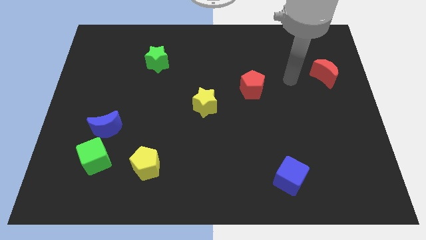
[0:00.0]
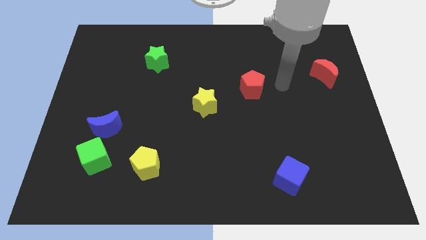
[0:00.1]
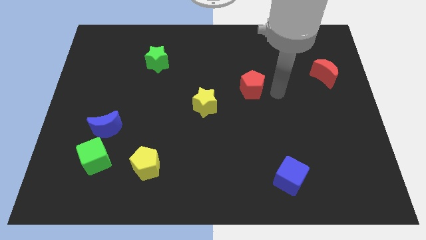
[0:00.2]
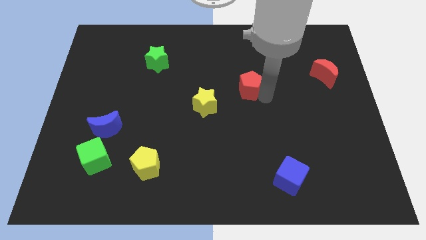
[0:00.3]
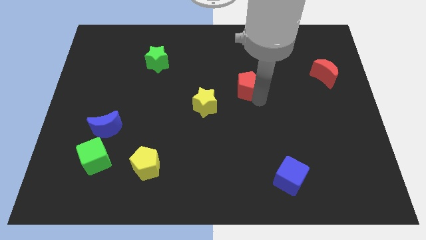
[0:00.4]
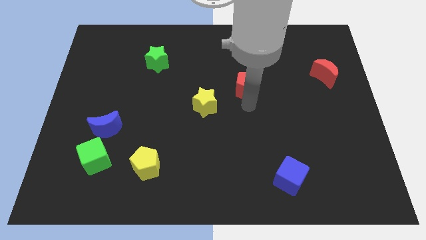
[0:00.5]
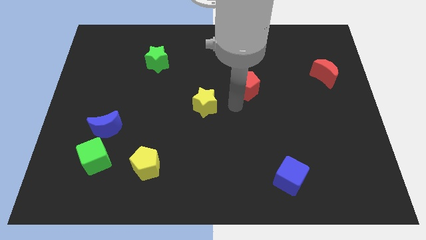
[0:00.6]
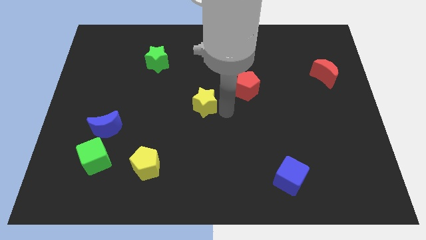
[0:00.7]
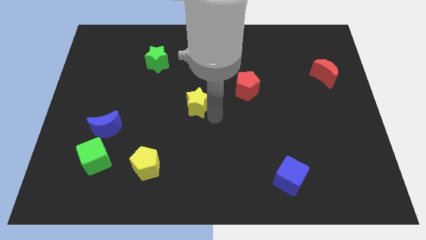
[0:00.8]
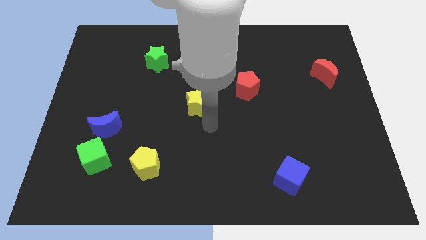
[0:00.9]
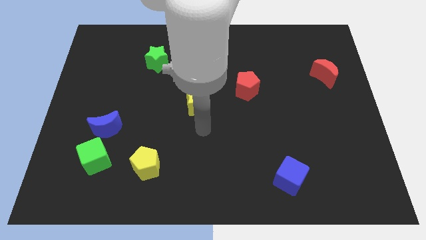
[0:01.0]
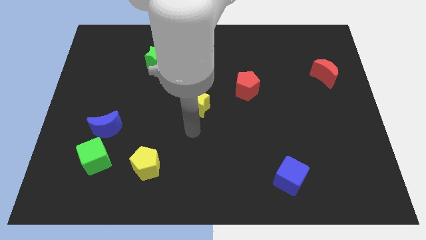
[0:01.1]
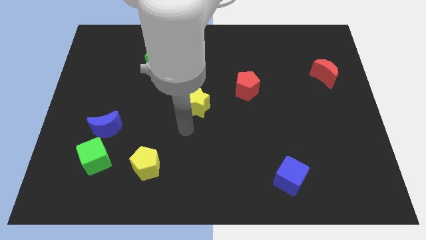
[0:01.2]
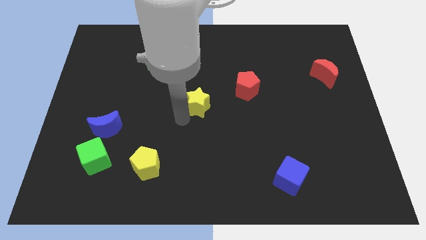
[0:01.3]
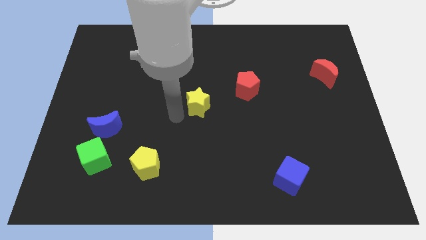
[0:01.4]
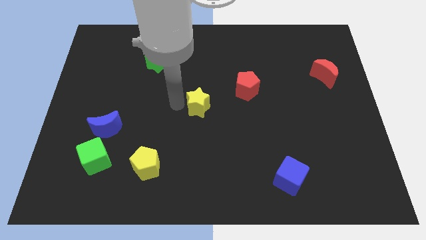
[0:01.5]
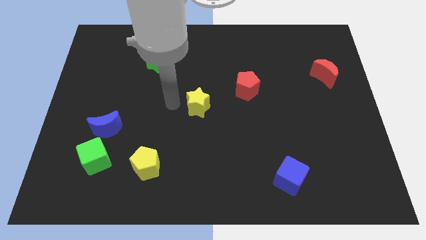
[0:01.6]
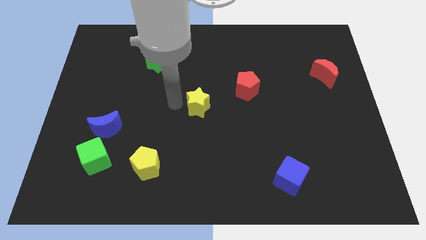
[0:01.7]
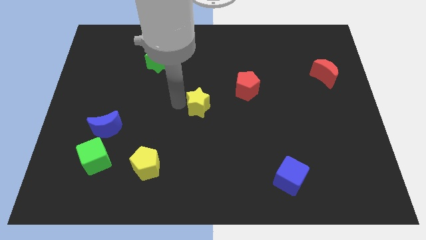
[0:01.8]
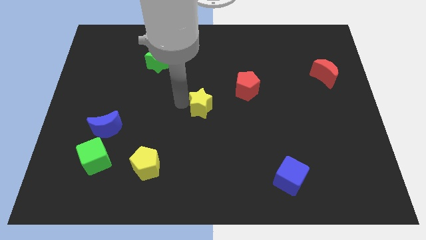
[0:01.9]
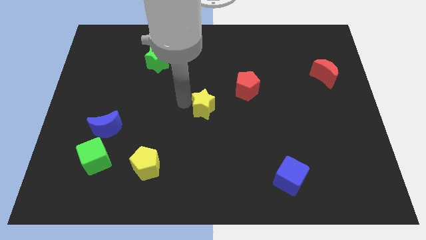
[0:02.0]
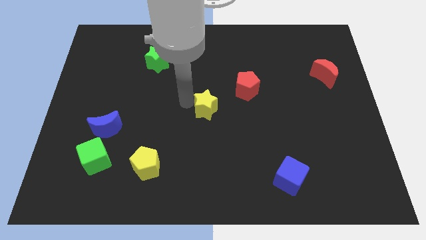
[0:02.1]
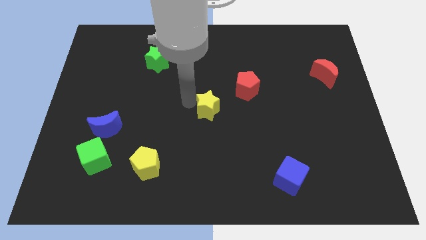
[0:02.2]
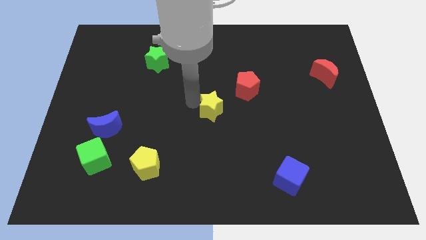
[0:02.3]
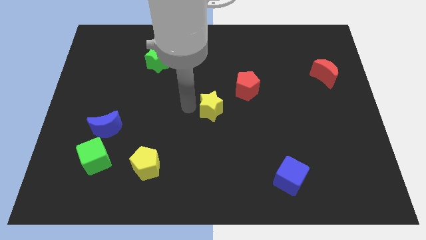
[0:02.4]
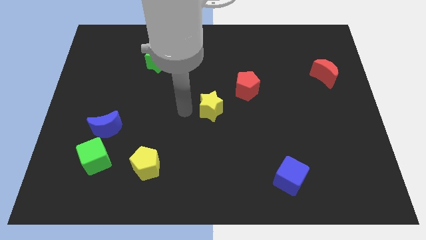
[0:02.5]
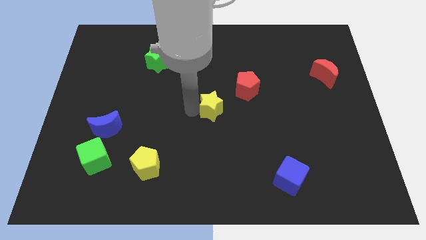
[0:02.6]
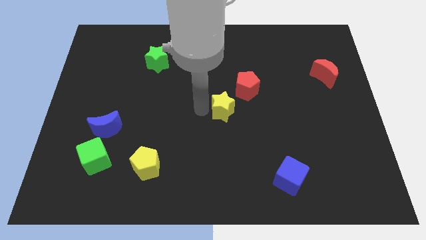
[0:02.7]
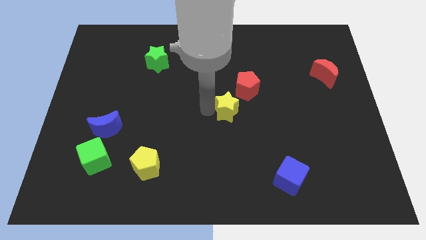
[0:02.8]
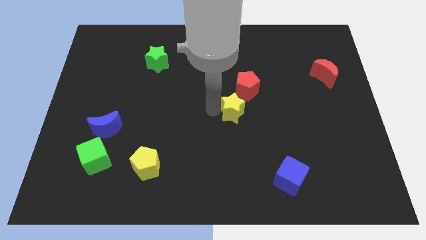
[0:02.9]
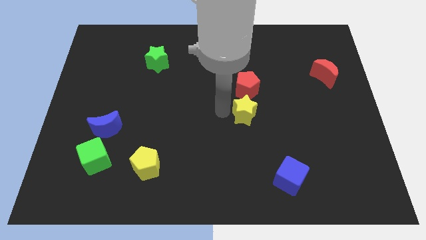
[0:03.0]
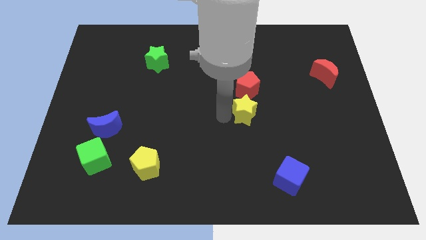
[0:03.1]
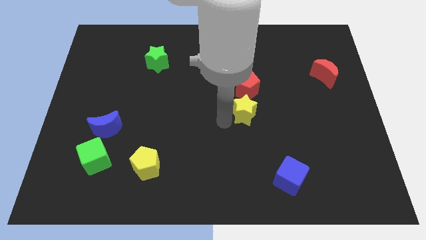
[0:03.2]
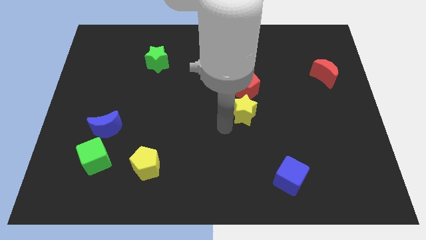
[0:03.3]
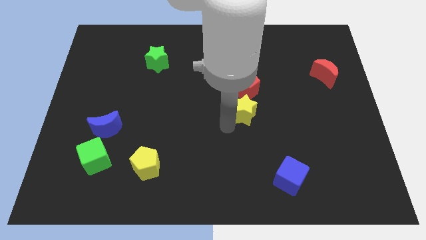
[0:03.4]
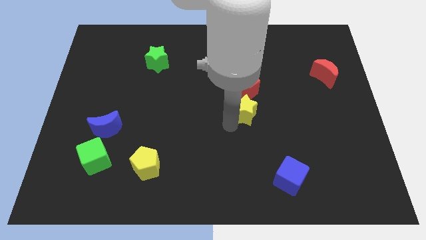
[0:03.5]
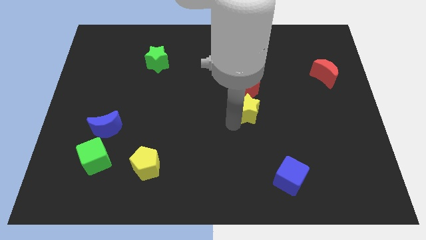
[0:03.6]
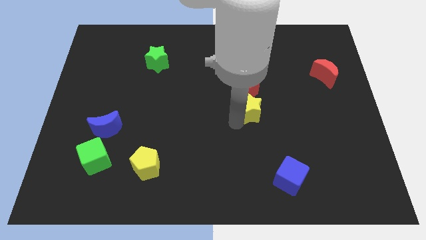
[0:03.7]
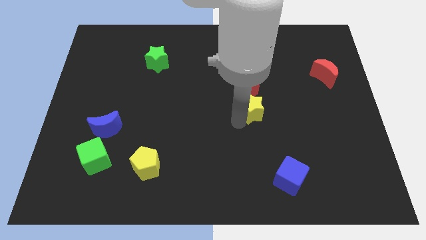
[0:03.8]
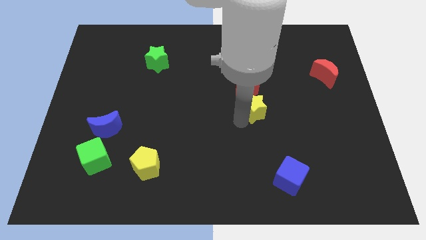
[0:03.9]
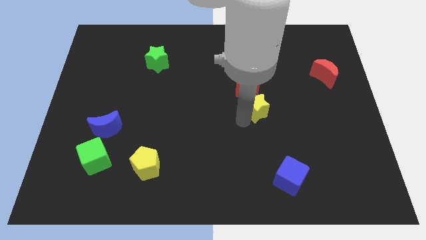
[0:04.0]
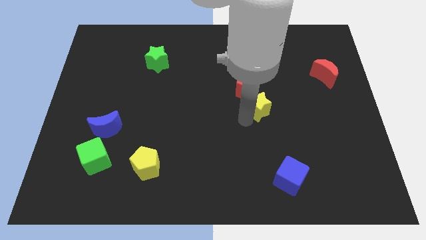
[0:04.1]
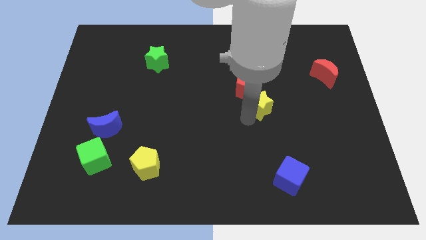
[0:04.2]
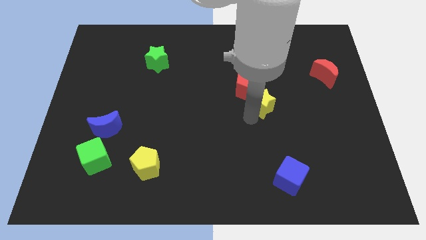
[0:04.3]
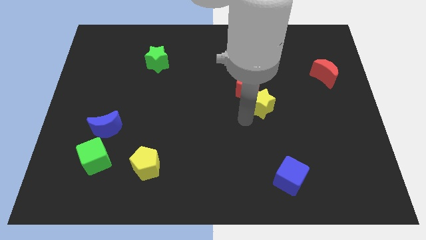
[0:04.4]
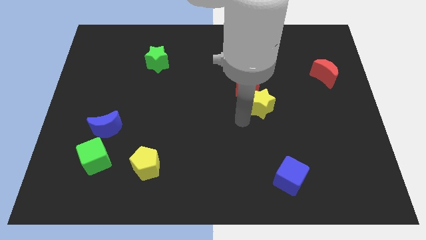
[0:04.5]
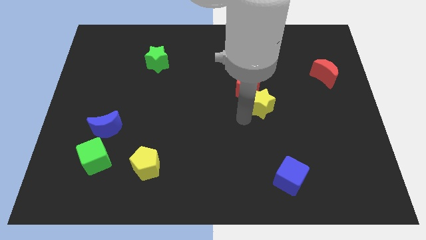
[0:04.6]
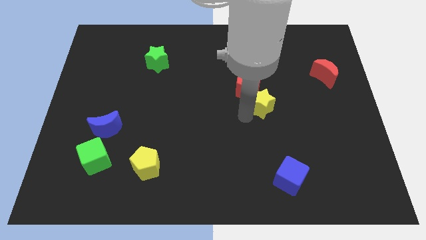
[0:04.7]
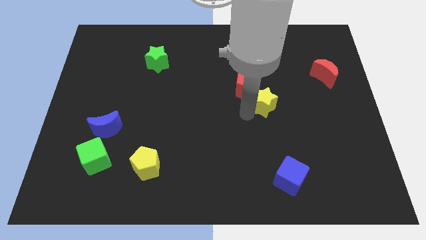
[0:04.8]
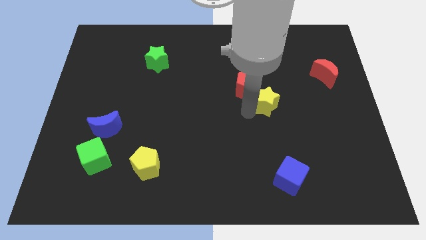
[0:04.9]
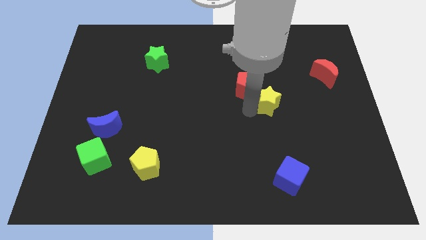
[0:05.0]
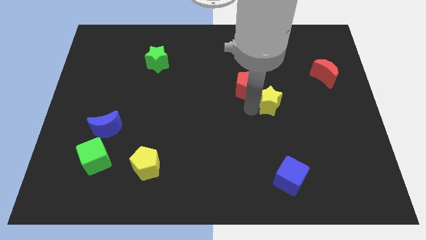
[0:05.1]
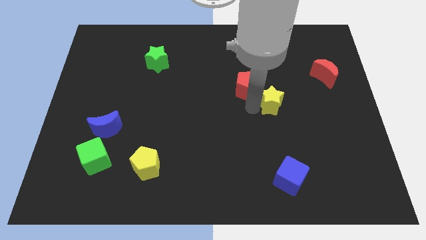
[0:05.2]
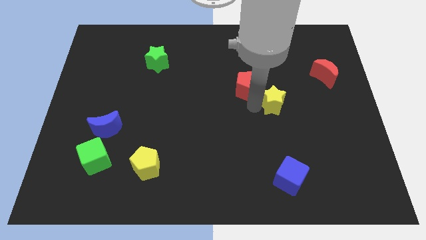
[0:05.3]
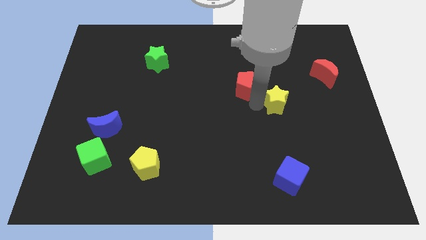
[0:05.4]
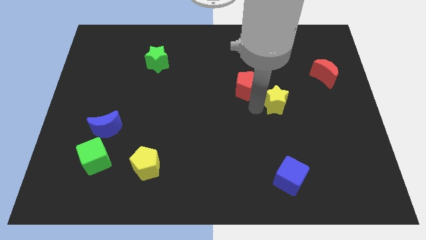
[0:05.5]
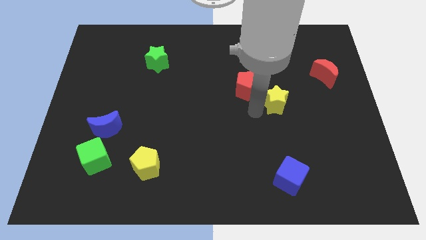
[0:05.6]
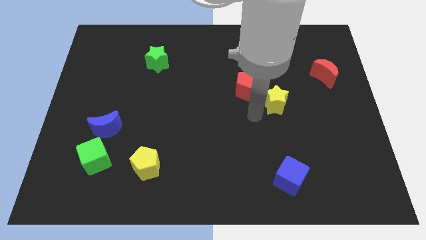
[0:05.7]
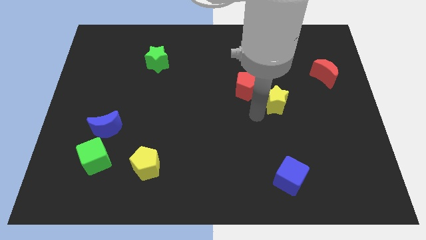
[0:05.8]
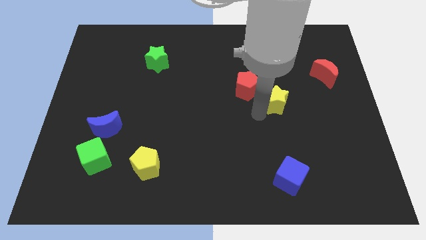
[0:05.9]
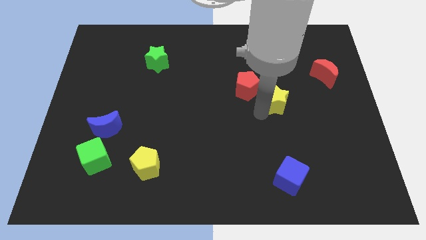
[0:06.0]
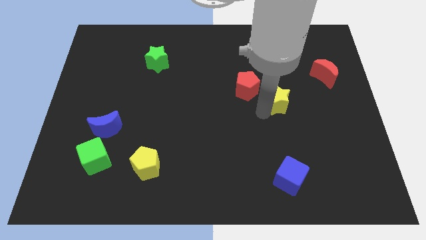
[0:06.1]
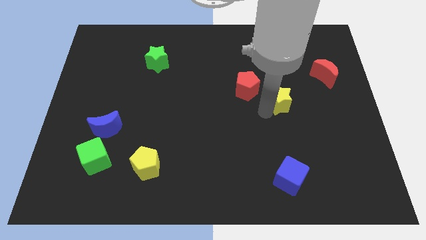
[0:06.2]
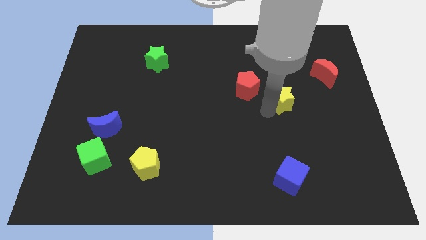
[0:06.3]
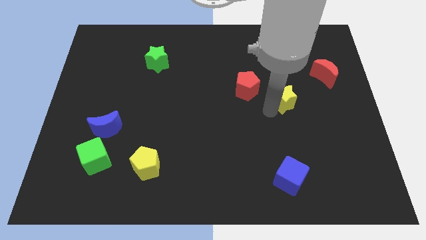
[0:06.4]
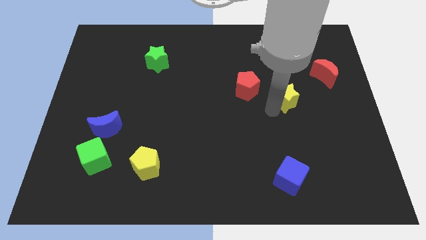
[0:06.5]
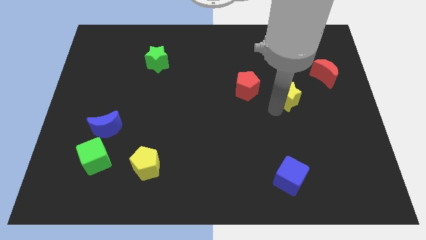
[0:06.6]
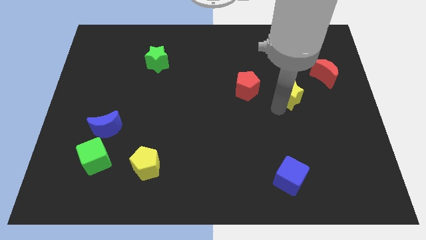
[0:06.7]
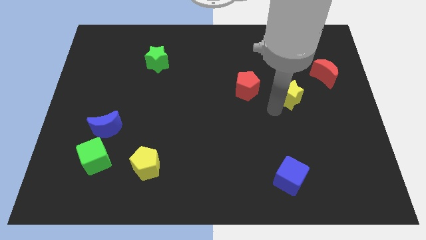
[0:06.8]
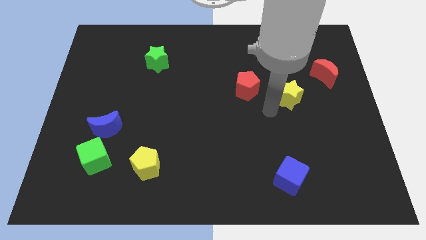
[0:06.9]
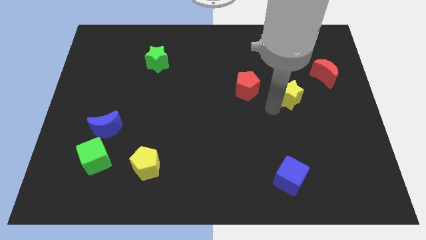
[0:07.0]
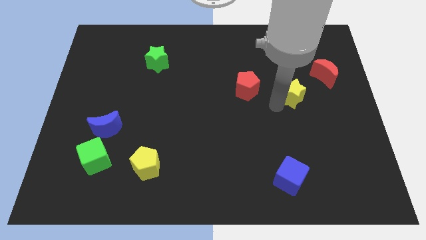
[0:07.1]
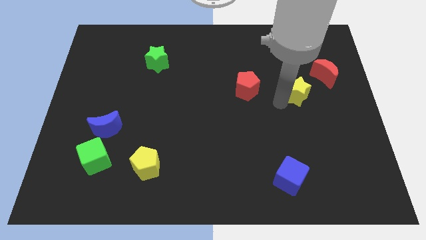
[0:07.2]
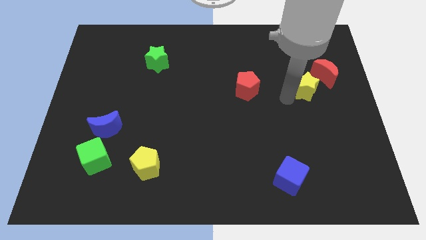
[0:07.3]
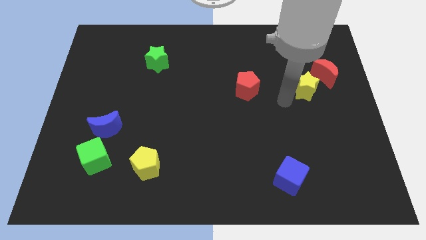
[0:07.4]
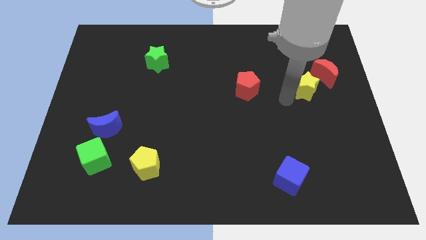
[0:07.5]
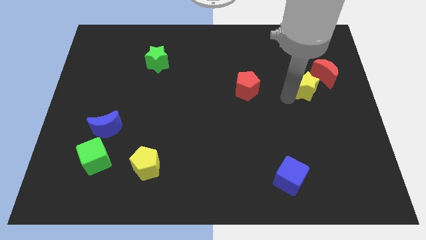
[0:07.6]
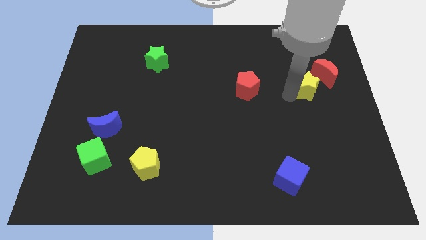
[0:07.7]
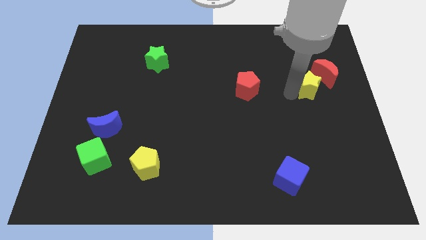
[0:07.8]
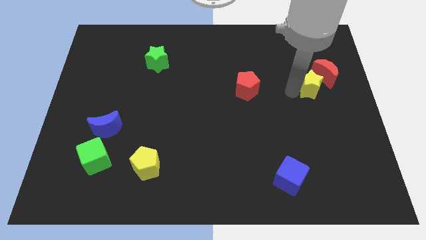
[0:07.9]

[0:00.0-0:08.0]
move the yellow star to the red moon
